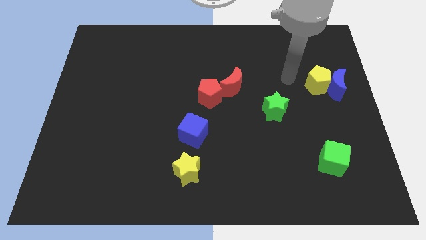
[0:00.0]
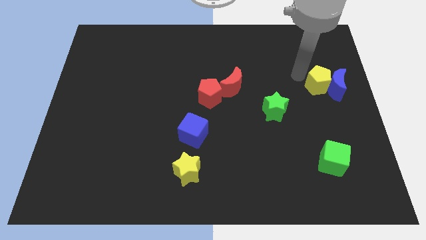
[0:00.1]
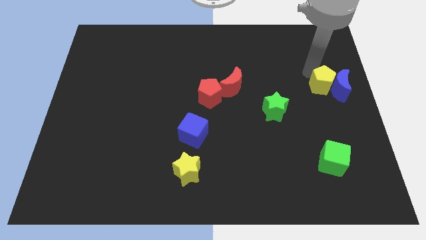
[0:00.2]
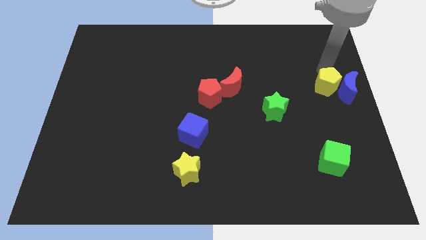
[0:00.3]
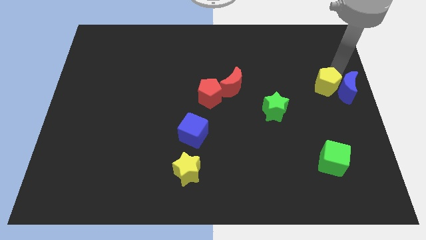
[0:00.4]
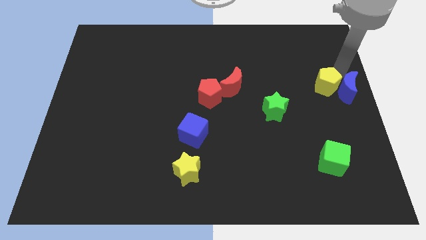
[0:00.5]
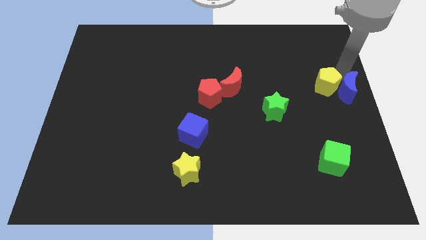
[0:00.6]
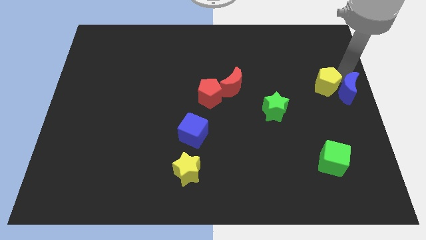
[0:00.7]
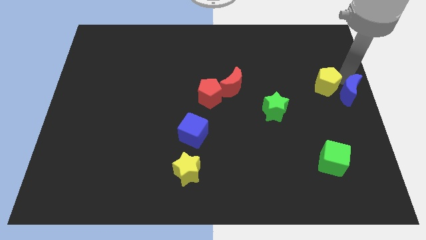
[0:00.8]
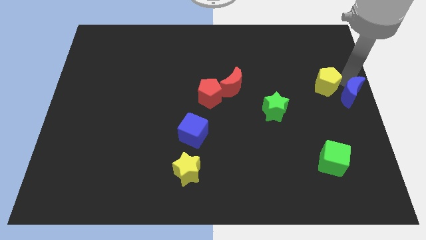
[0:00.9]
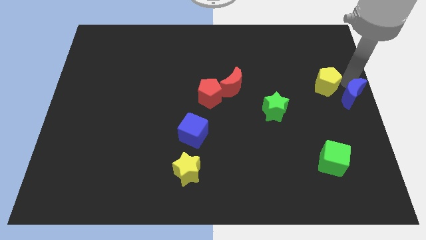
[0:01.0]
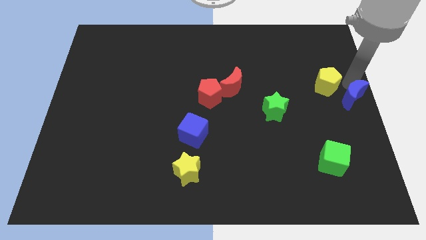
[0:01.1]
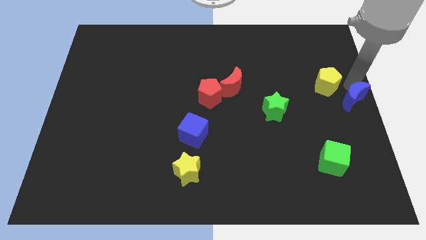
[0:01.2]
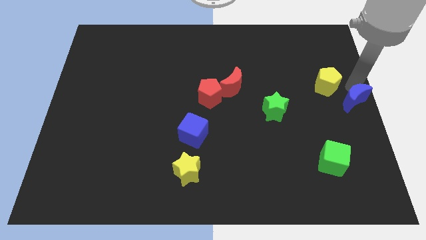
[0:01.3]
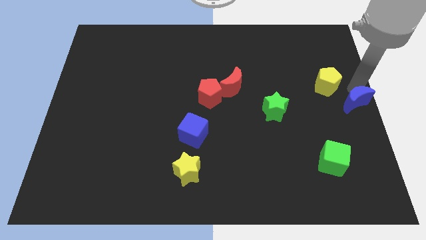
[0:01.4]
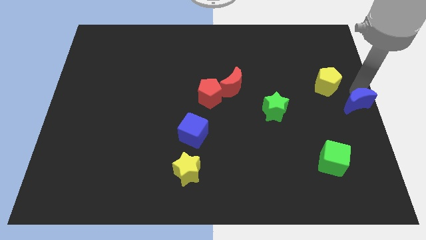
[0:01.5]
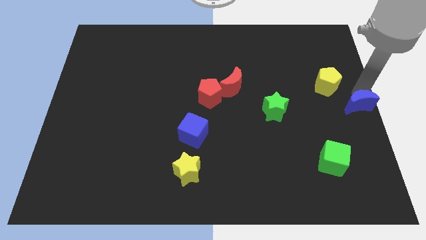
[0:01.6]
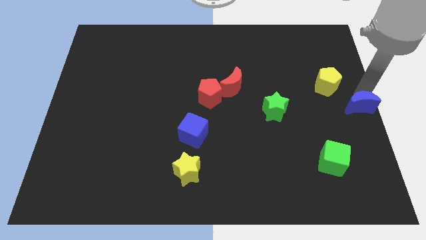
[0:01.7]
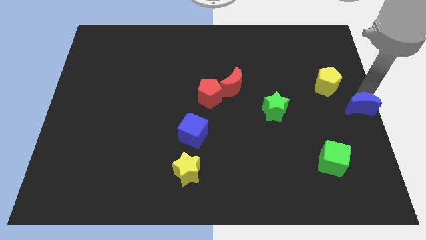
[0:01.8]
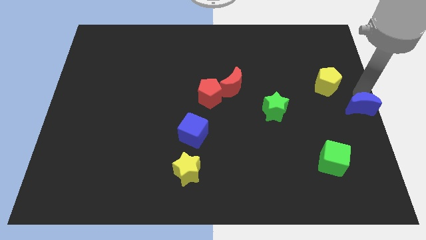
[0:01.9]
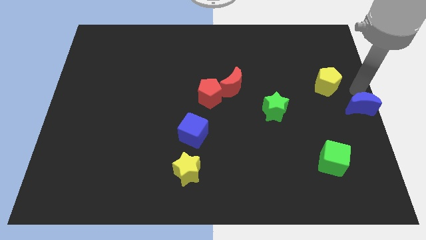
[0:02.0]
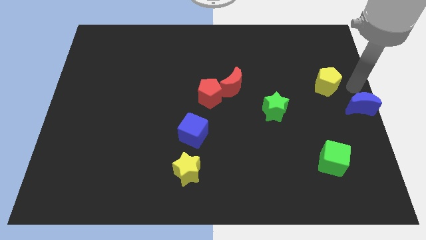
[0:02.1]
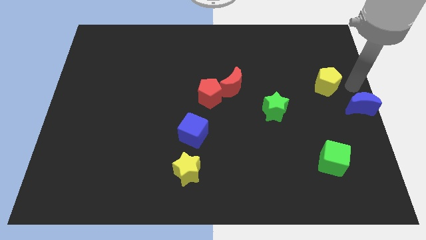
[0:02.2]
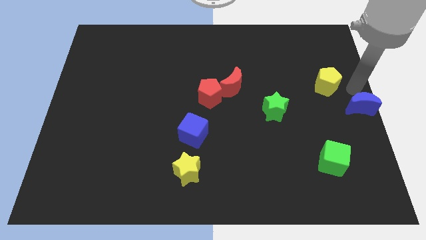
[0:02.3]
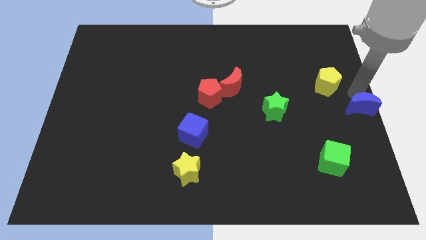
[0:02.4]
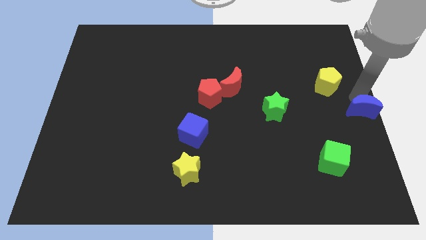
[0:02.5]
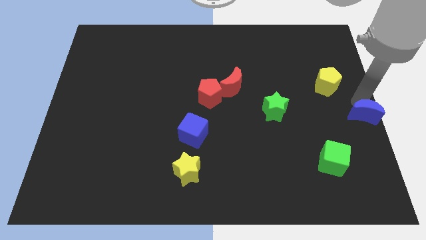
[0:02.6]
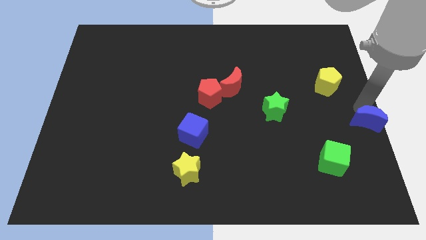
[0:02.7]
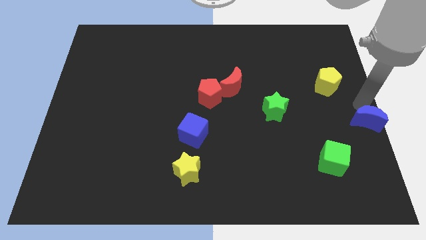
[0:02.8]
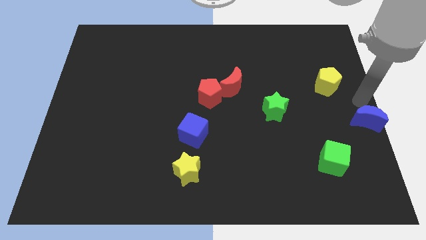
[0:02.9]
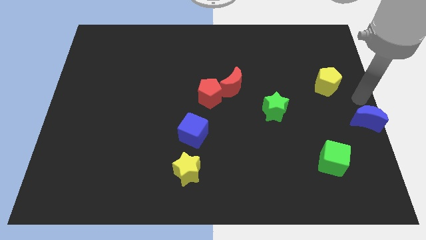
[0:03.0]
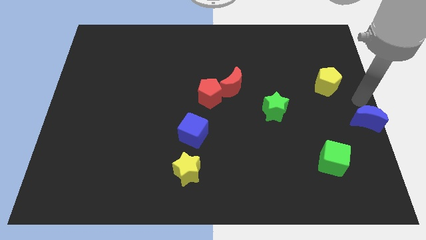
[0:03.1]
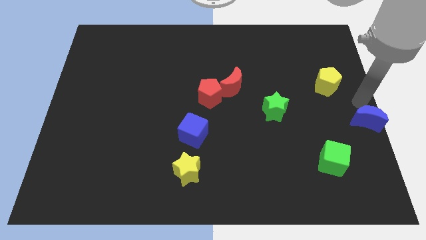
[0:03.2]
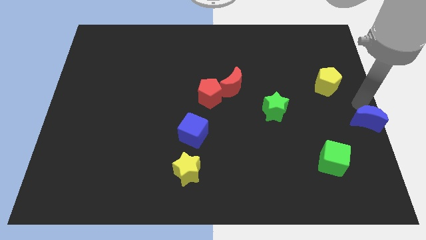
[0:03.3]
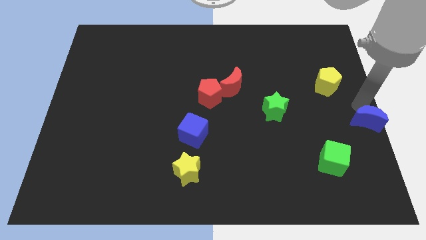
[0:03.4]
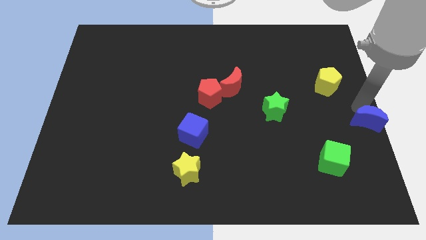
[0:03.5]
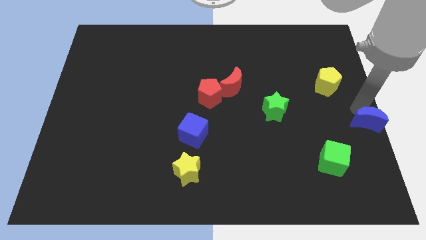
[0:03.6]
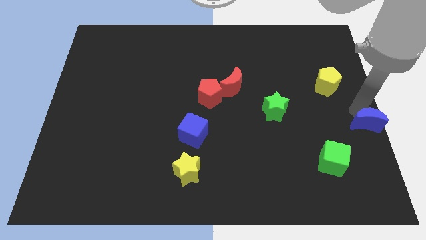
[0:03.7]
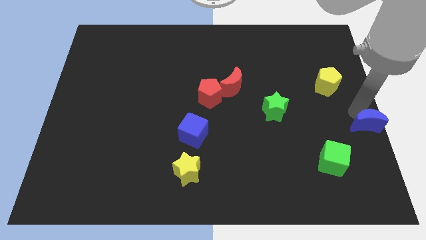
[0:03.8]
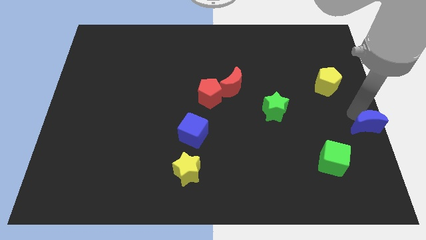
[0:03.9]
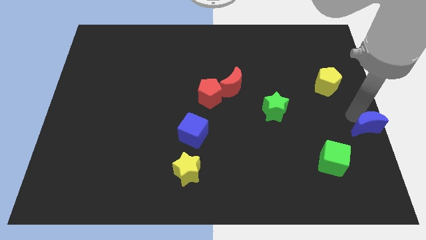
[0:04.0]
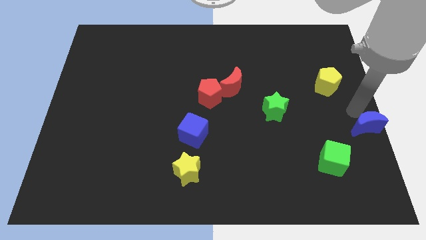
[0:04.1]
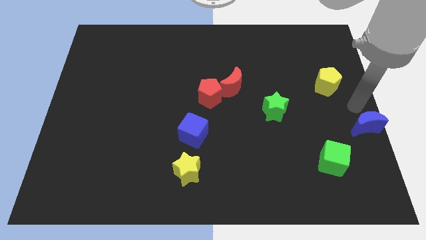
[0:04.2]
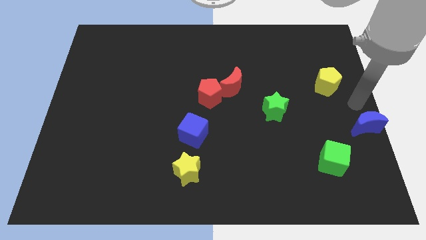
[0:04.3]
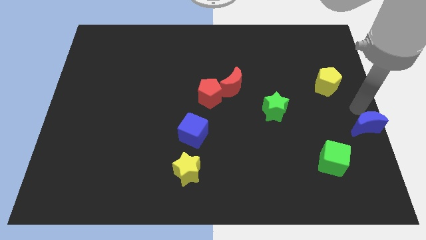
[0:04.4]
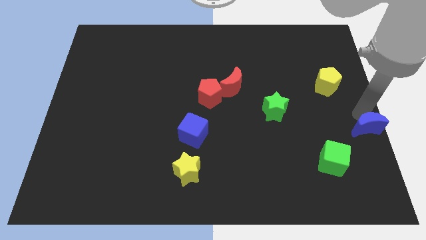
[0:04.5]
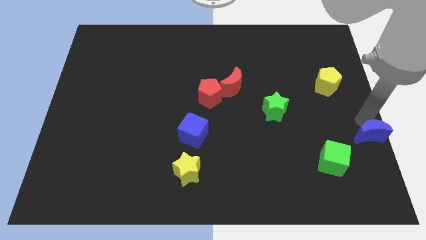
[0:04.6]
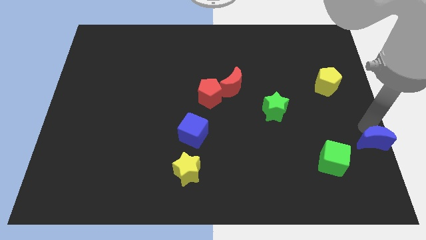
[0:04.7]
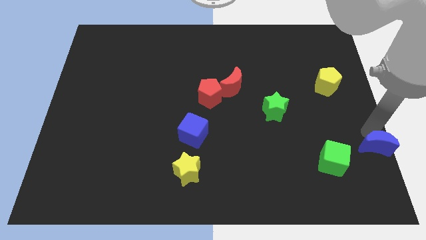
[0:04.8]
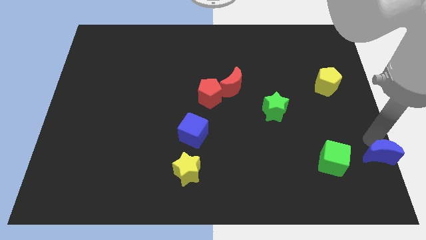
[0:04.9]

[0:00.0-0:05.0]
slide the blue moon to the lower right corner

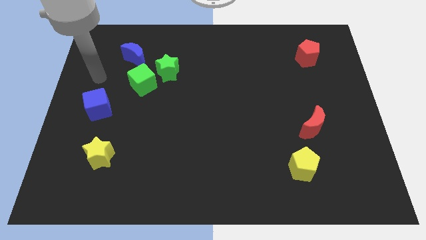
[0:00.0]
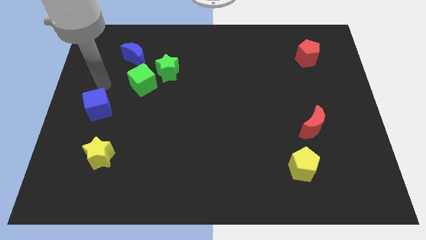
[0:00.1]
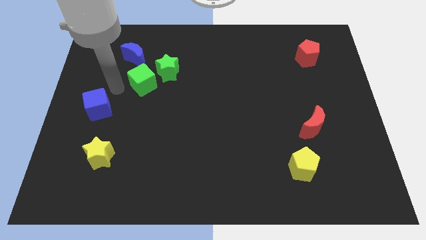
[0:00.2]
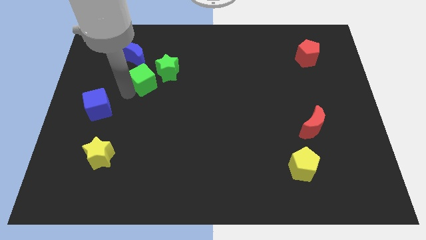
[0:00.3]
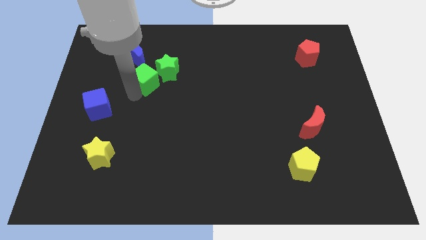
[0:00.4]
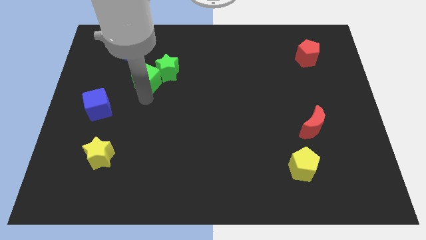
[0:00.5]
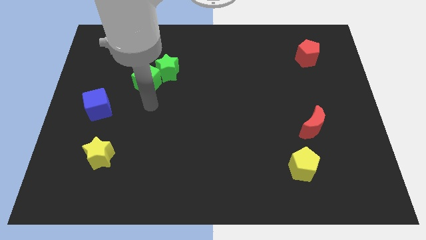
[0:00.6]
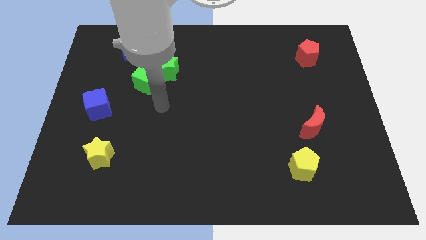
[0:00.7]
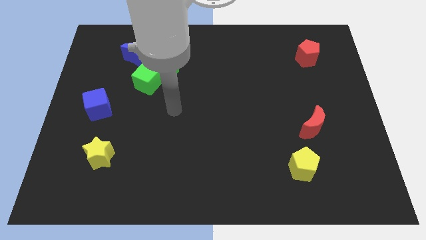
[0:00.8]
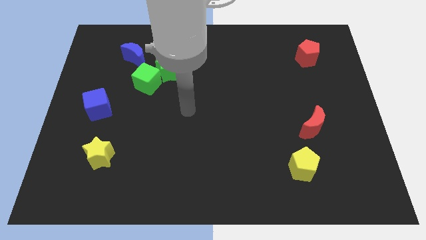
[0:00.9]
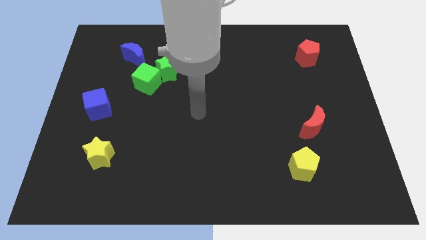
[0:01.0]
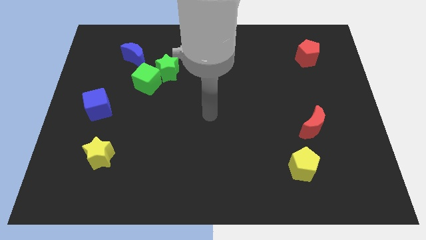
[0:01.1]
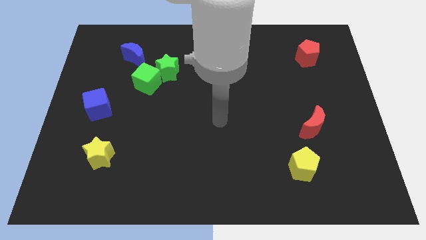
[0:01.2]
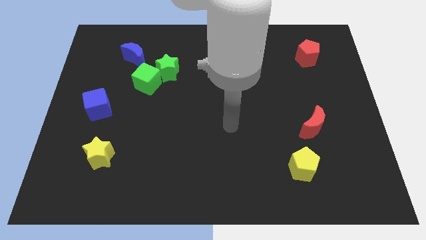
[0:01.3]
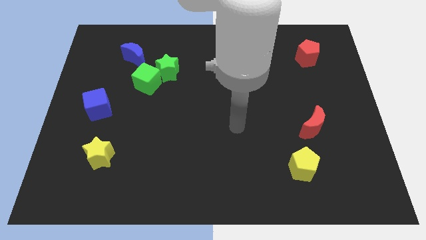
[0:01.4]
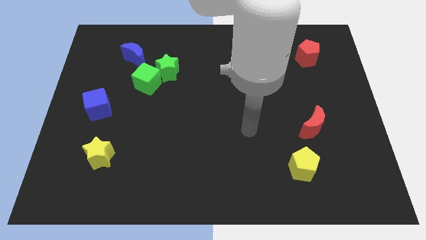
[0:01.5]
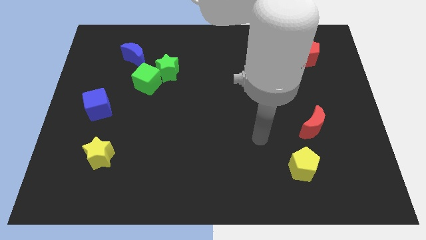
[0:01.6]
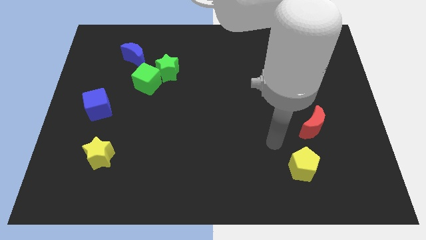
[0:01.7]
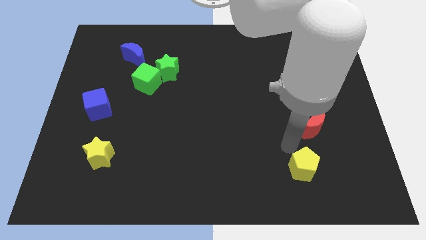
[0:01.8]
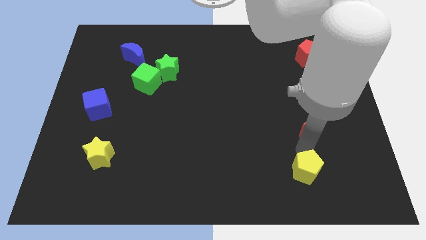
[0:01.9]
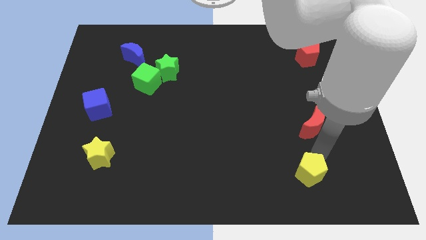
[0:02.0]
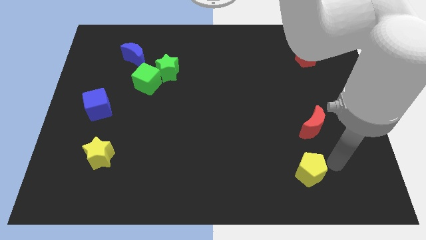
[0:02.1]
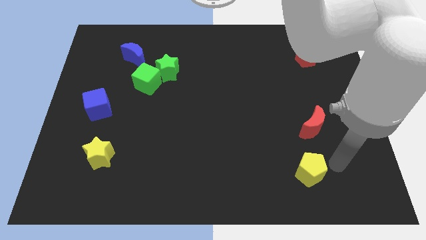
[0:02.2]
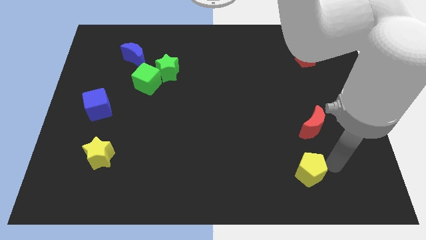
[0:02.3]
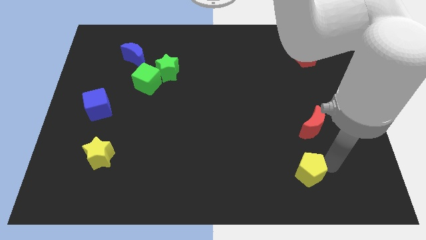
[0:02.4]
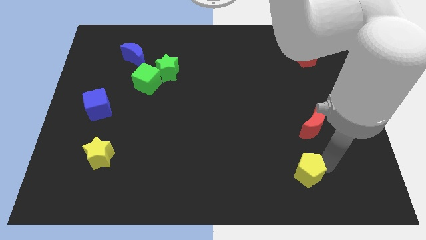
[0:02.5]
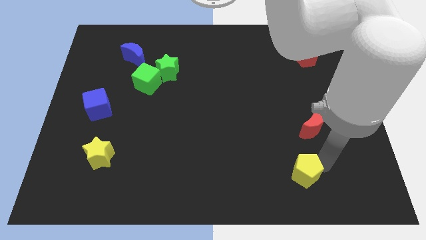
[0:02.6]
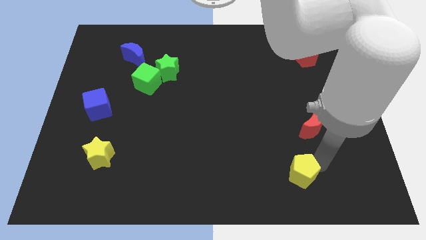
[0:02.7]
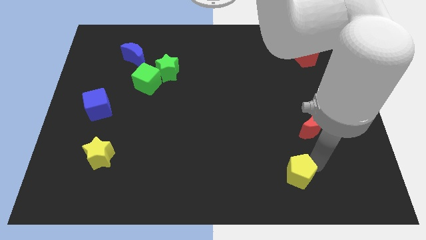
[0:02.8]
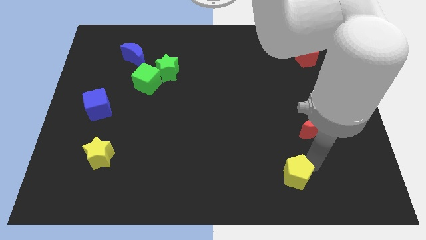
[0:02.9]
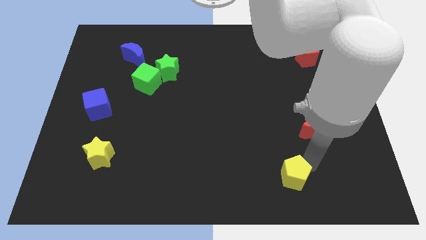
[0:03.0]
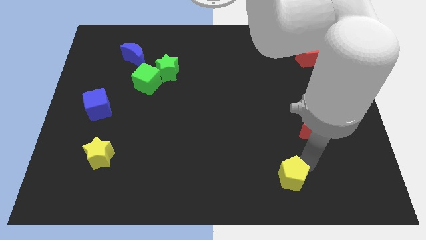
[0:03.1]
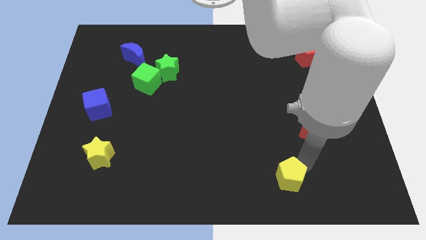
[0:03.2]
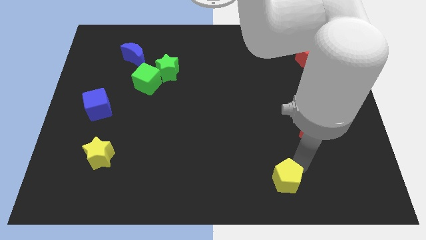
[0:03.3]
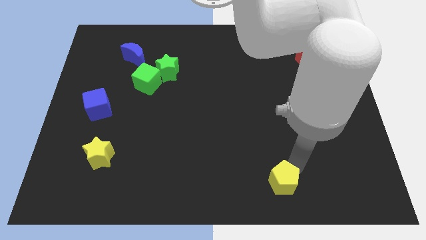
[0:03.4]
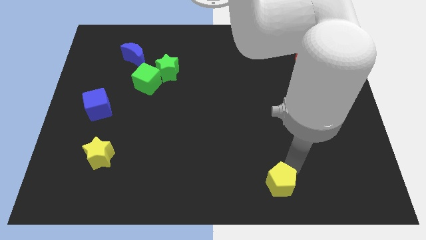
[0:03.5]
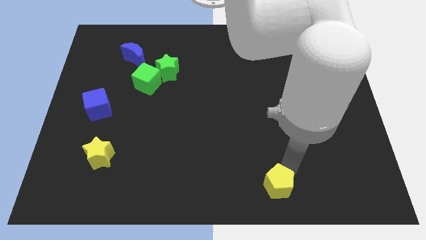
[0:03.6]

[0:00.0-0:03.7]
move the yellow pentagon to the bottom
